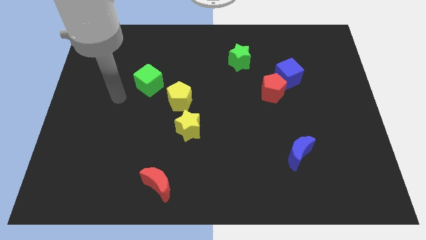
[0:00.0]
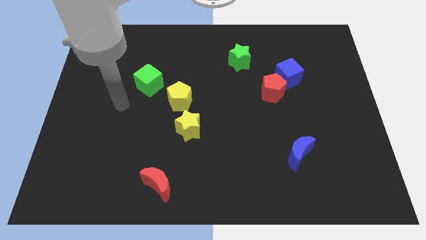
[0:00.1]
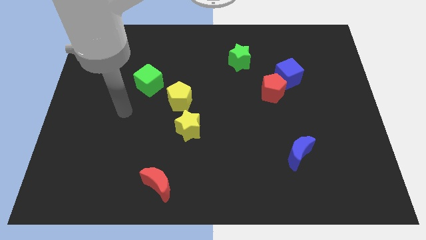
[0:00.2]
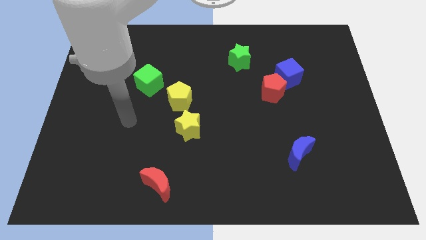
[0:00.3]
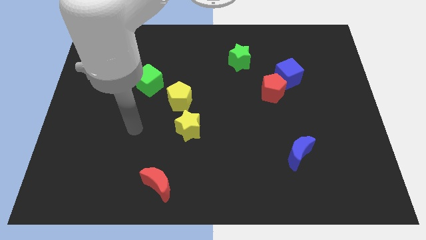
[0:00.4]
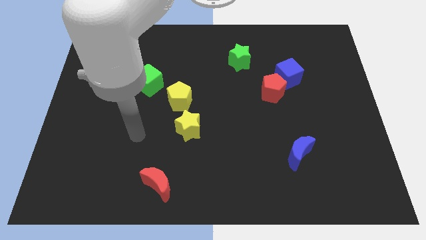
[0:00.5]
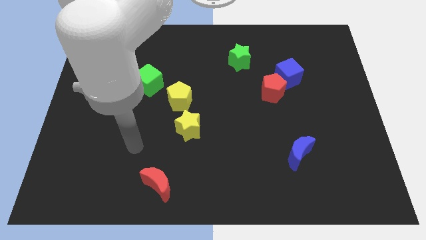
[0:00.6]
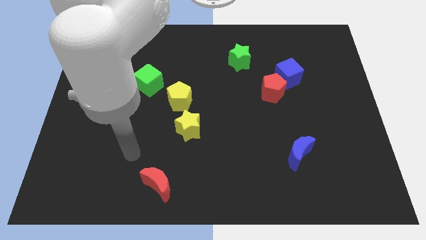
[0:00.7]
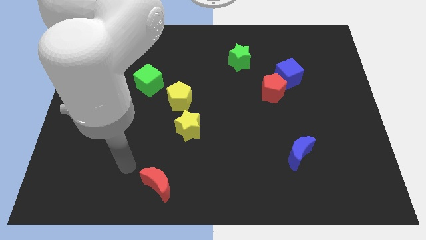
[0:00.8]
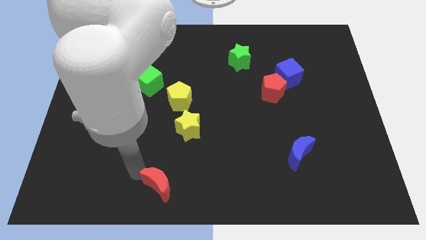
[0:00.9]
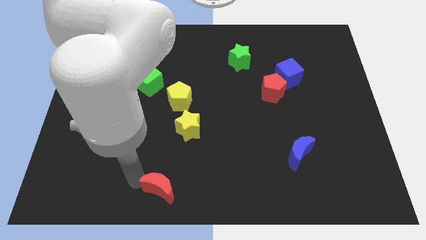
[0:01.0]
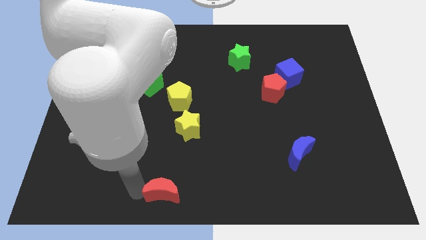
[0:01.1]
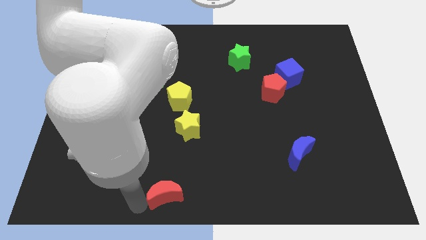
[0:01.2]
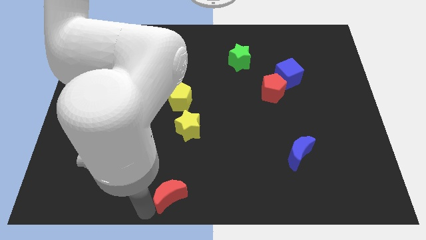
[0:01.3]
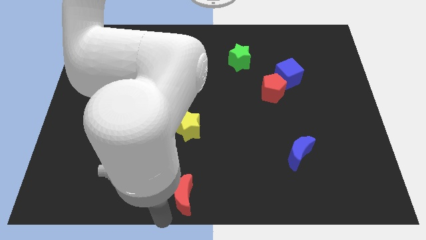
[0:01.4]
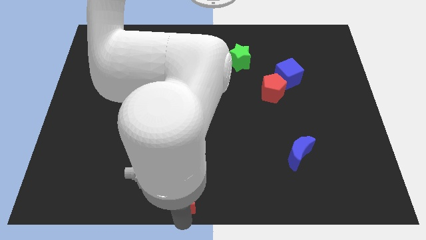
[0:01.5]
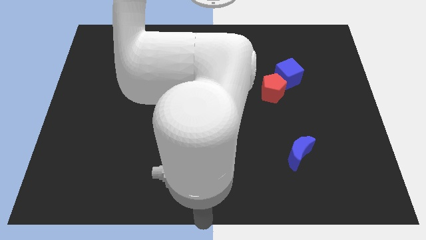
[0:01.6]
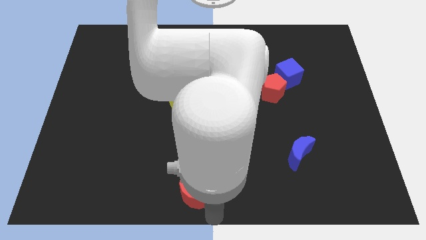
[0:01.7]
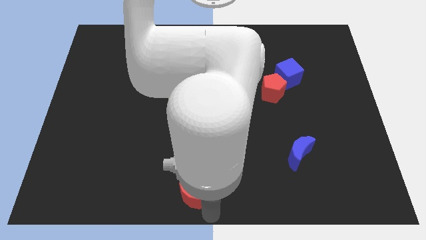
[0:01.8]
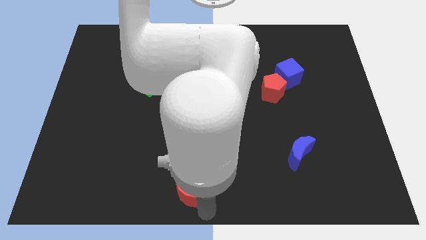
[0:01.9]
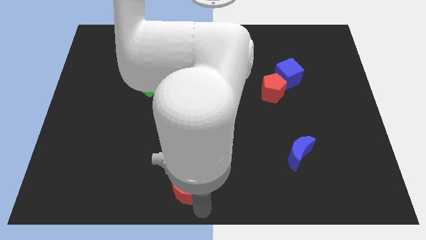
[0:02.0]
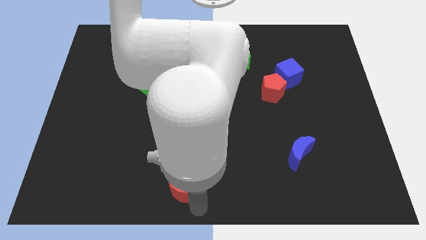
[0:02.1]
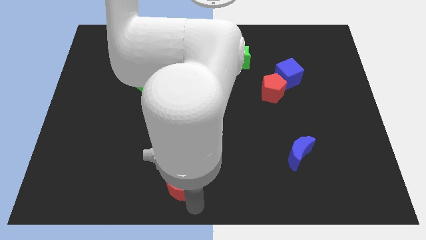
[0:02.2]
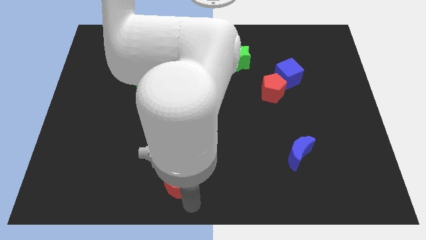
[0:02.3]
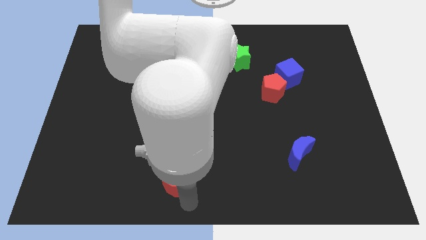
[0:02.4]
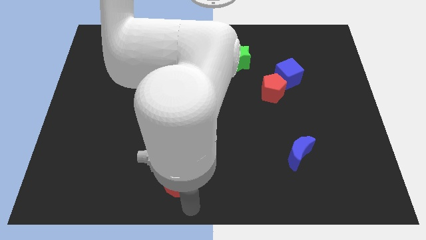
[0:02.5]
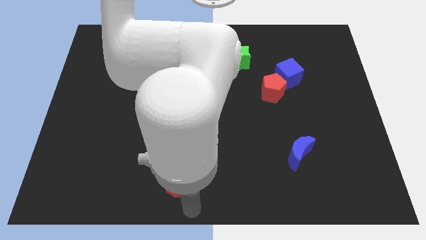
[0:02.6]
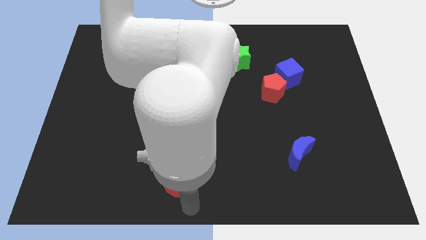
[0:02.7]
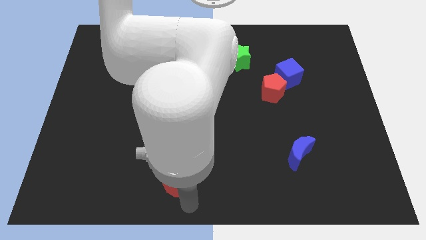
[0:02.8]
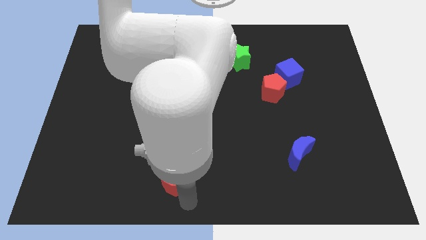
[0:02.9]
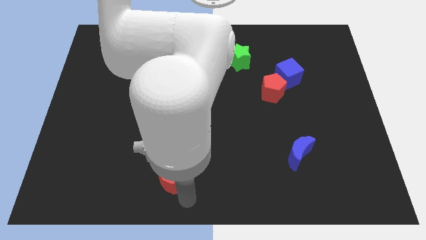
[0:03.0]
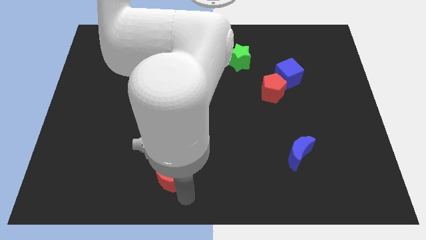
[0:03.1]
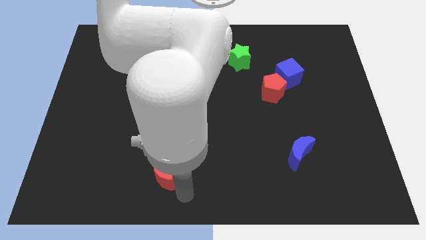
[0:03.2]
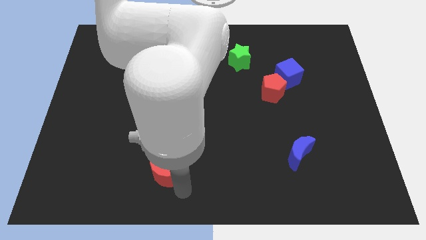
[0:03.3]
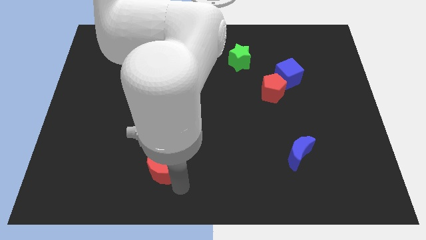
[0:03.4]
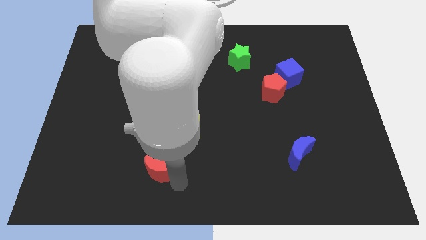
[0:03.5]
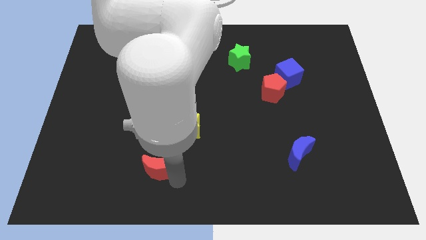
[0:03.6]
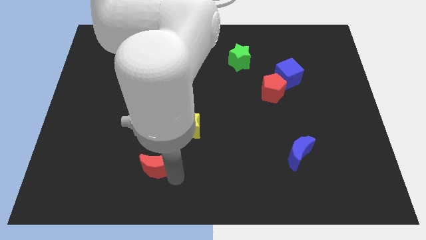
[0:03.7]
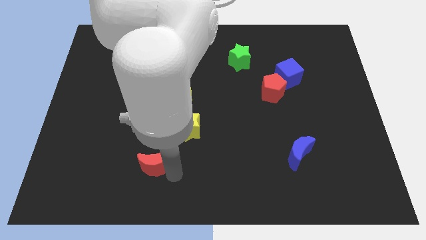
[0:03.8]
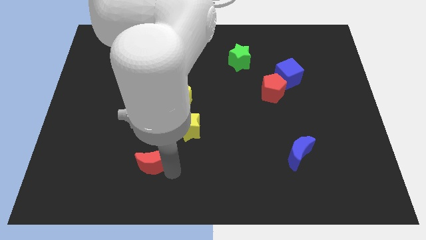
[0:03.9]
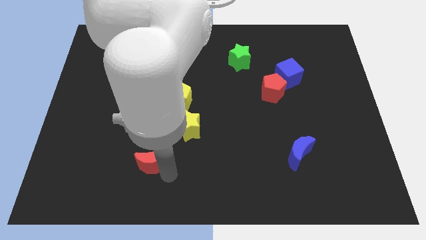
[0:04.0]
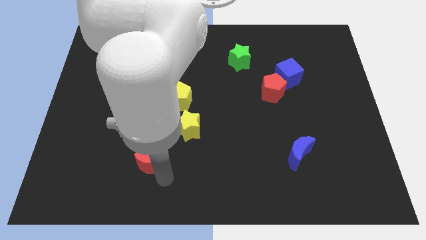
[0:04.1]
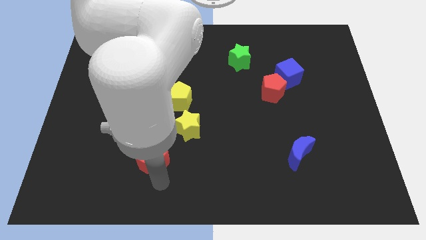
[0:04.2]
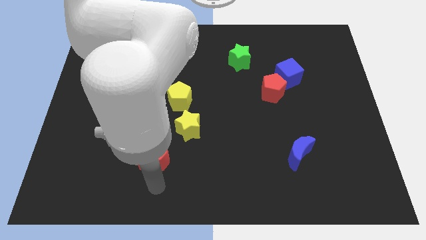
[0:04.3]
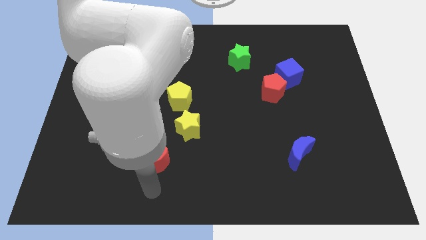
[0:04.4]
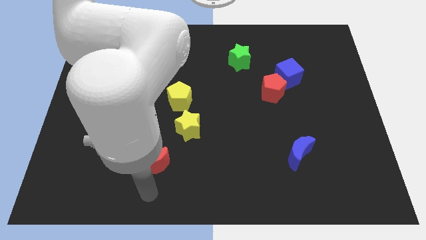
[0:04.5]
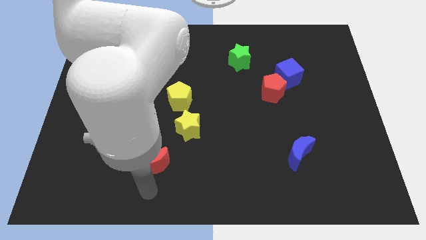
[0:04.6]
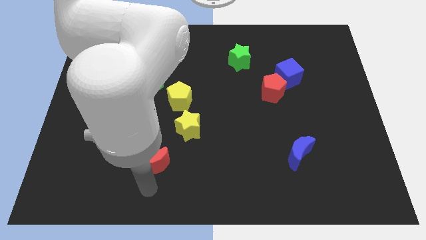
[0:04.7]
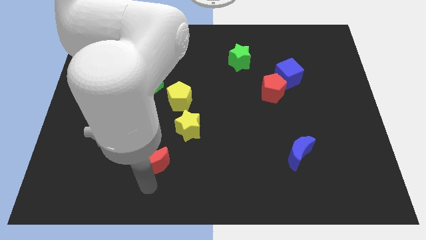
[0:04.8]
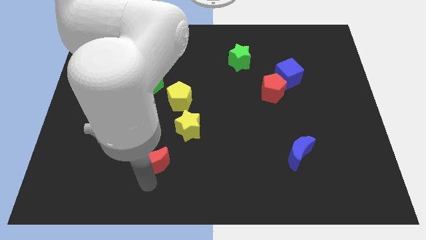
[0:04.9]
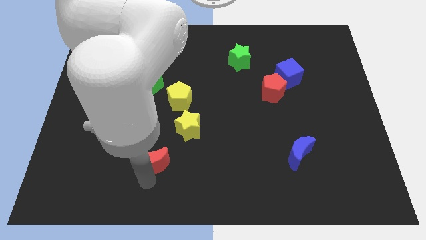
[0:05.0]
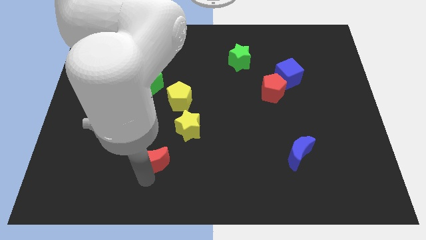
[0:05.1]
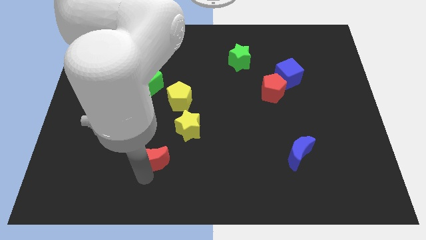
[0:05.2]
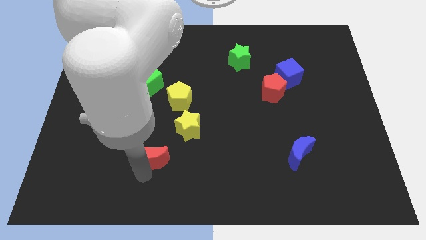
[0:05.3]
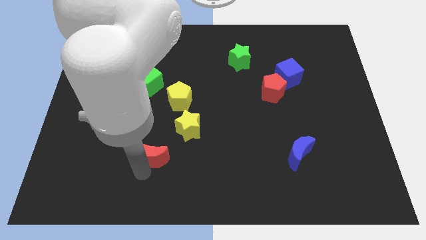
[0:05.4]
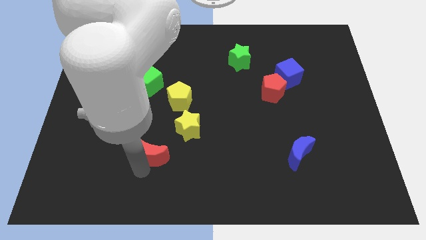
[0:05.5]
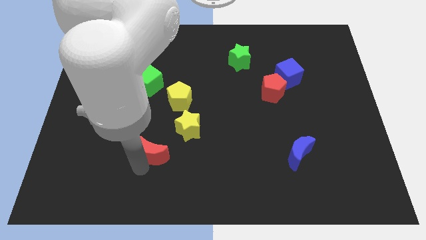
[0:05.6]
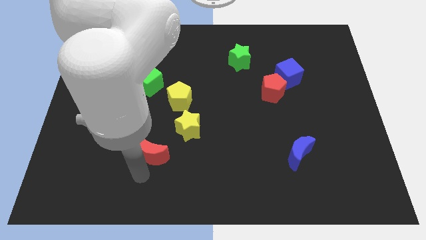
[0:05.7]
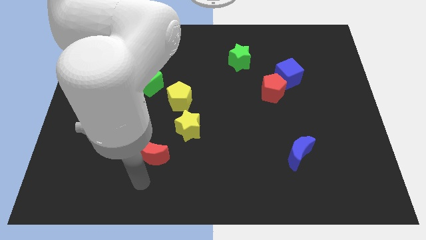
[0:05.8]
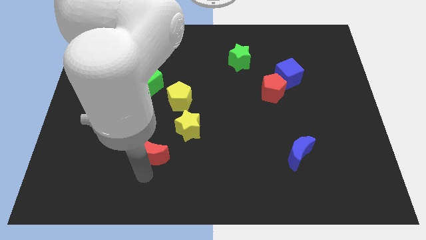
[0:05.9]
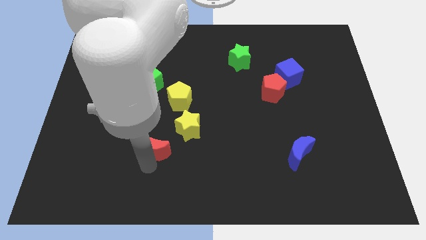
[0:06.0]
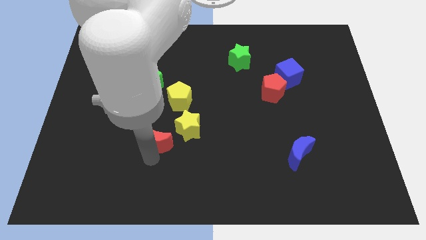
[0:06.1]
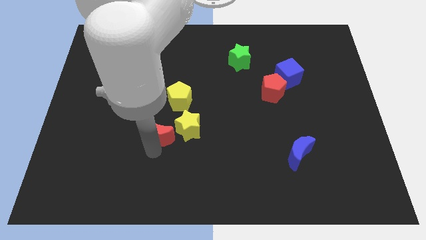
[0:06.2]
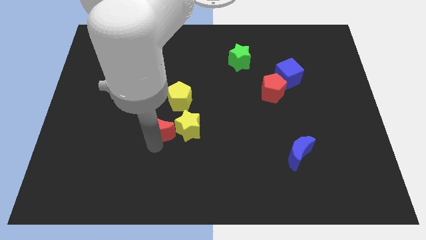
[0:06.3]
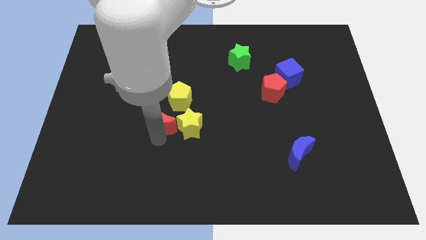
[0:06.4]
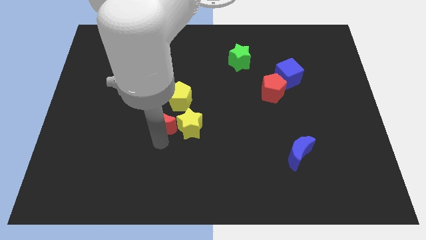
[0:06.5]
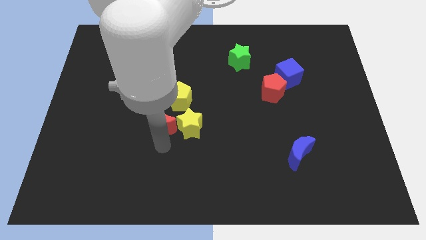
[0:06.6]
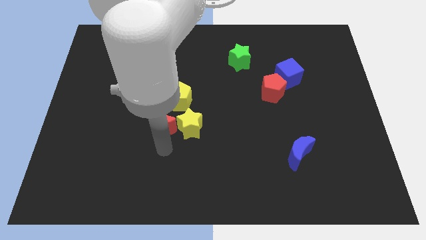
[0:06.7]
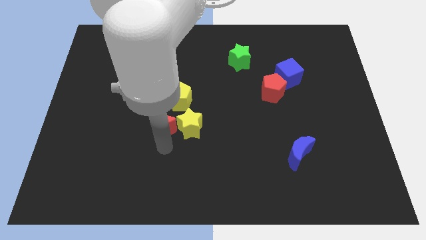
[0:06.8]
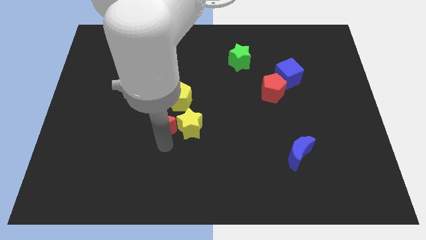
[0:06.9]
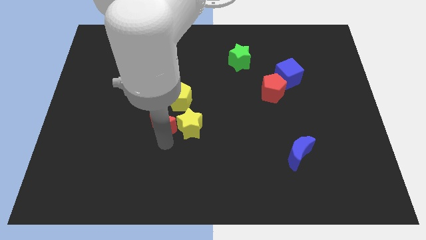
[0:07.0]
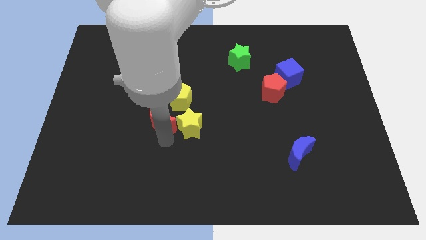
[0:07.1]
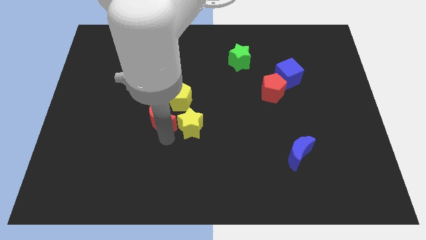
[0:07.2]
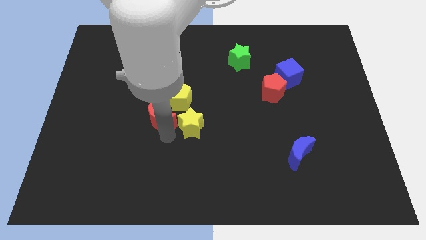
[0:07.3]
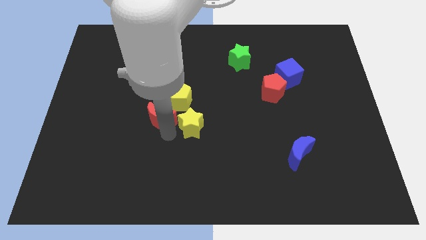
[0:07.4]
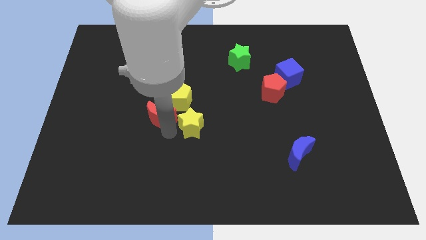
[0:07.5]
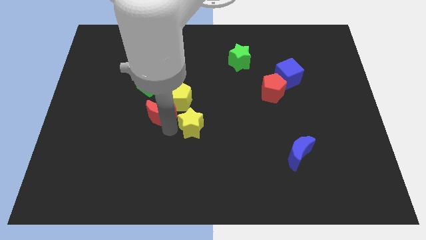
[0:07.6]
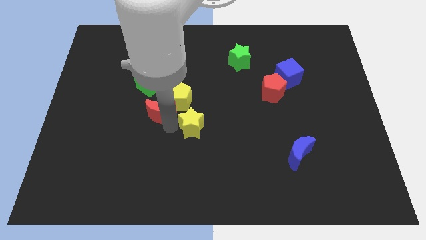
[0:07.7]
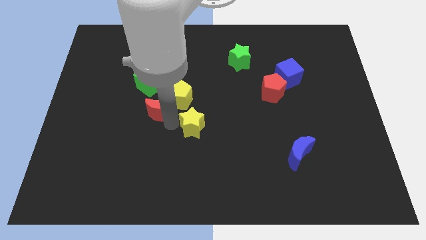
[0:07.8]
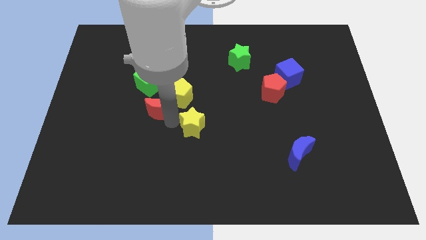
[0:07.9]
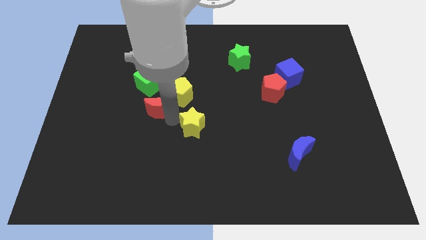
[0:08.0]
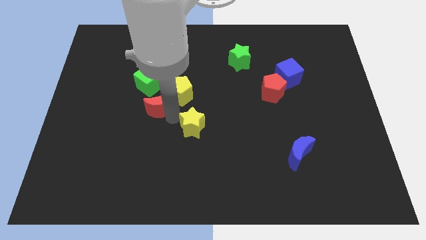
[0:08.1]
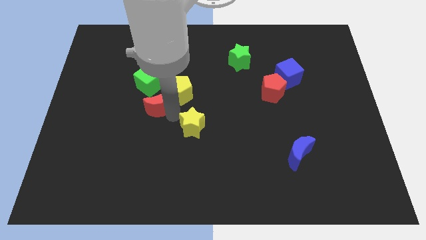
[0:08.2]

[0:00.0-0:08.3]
slide the red moon up
